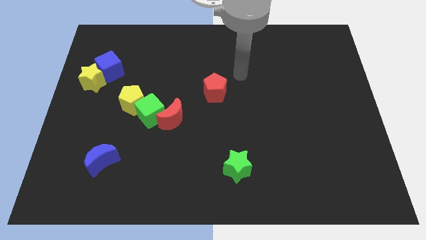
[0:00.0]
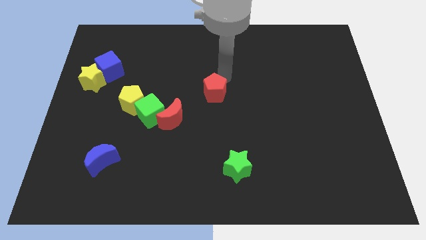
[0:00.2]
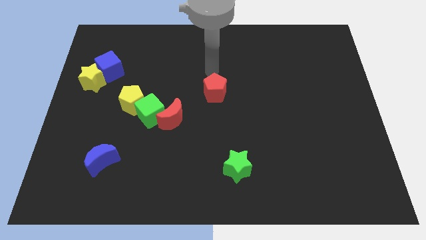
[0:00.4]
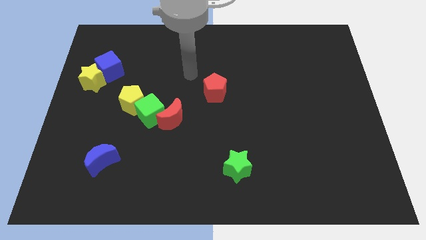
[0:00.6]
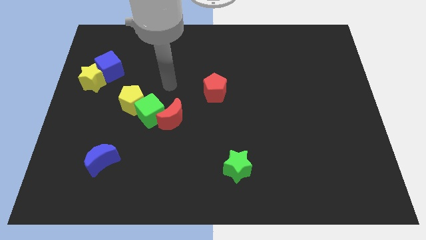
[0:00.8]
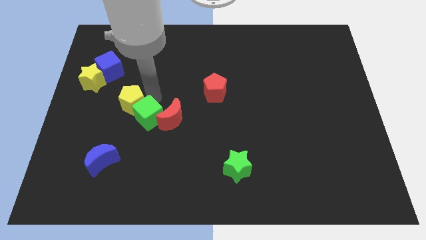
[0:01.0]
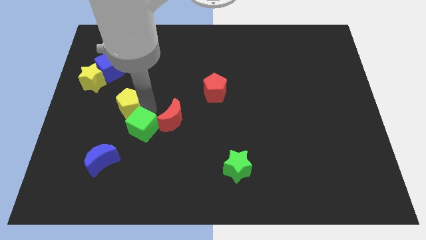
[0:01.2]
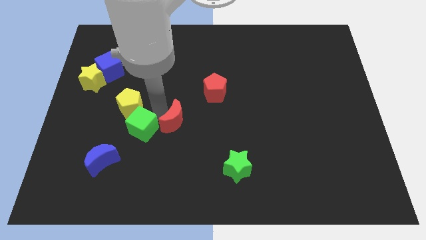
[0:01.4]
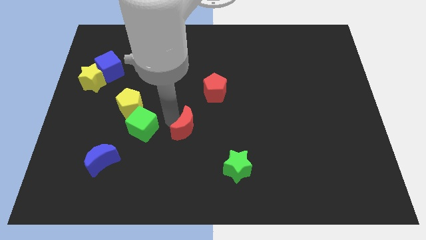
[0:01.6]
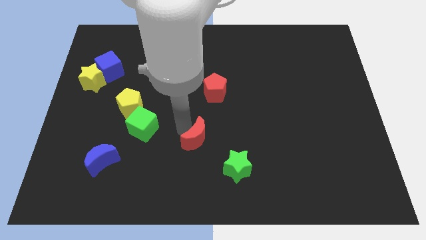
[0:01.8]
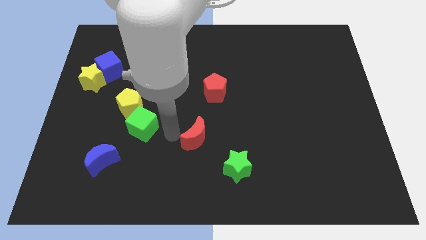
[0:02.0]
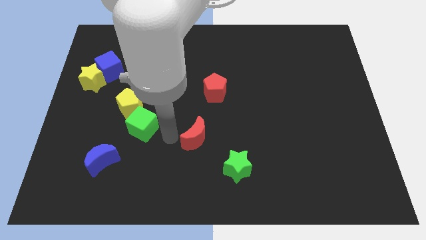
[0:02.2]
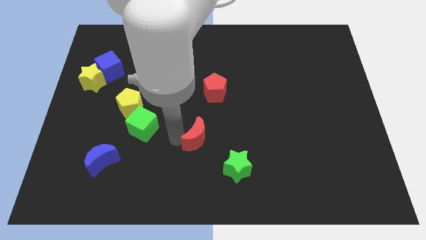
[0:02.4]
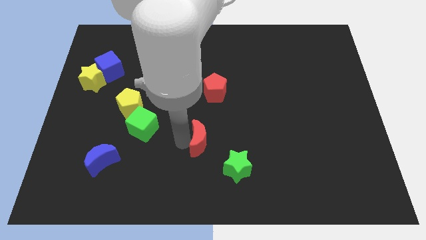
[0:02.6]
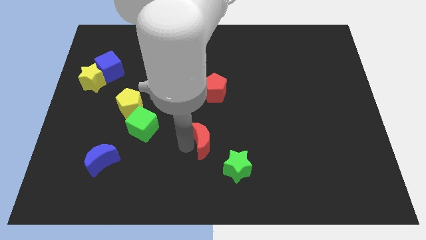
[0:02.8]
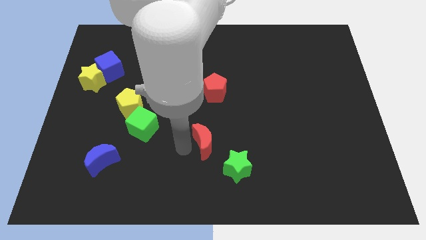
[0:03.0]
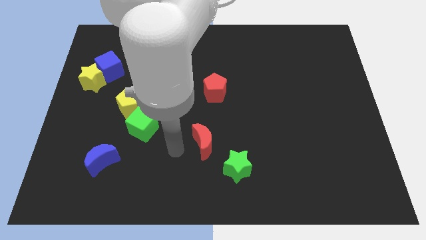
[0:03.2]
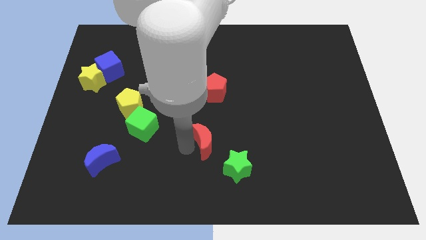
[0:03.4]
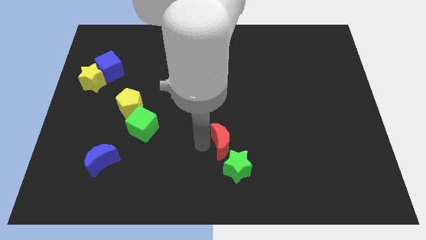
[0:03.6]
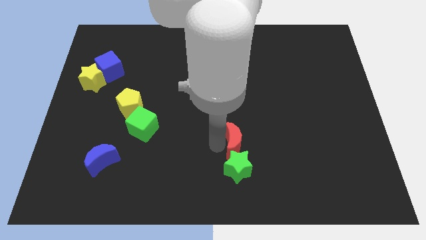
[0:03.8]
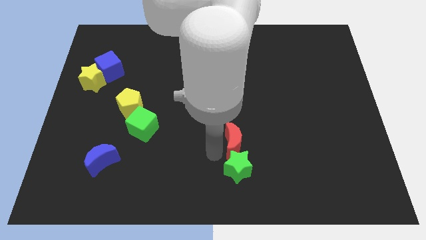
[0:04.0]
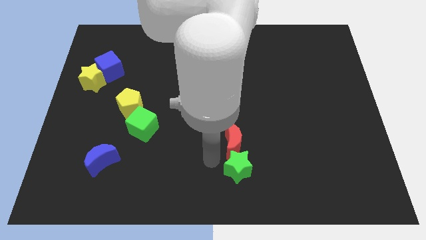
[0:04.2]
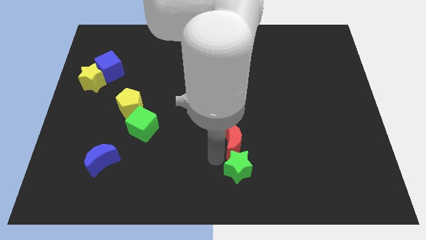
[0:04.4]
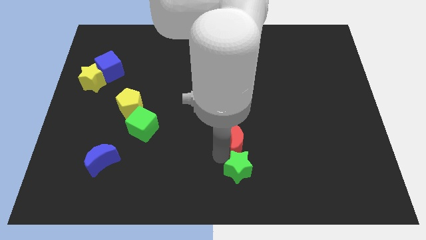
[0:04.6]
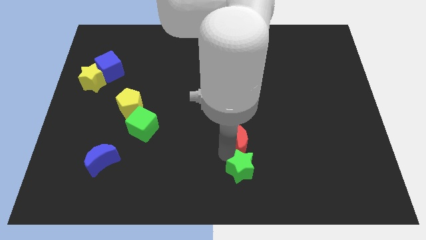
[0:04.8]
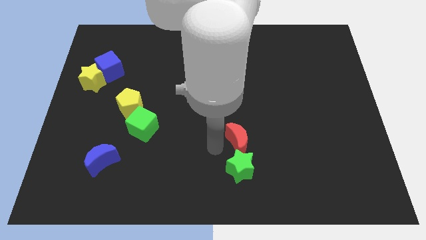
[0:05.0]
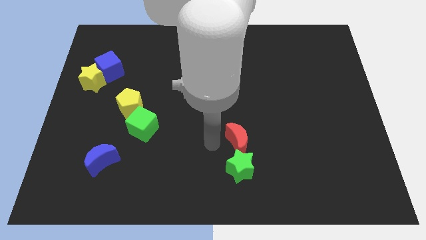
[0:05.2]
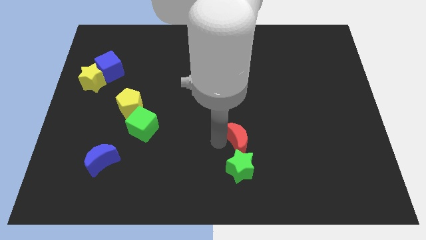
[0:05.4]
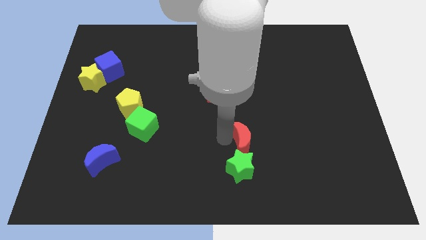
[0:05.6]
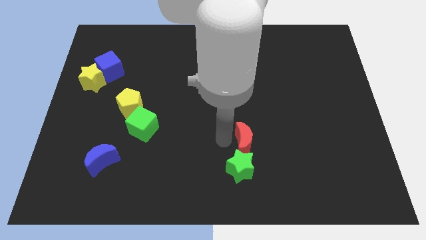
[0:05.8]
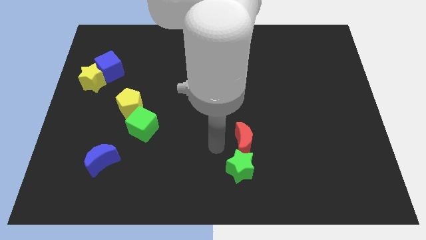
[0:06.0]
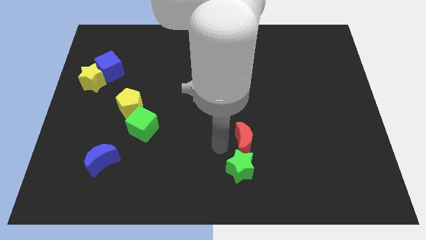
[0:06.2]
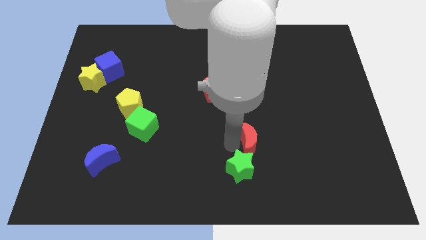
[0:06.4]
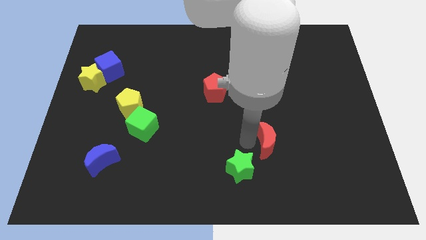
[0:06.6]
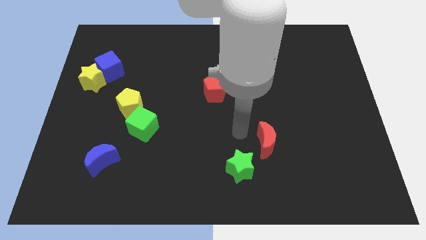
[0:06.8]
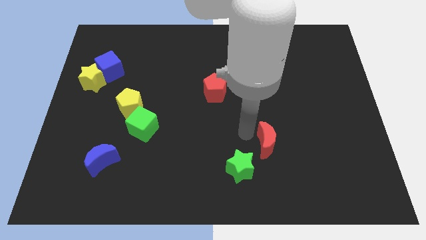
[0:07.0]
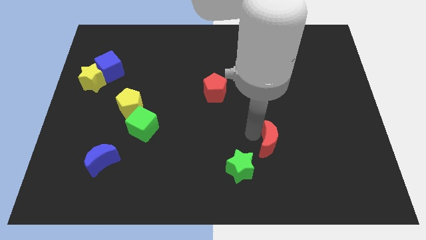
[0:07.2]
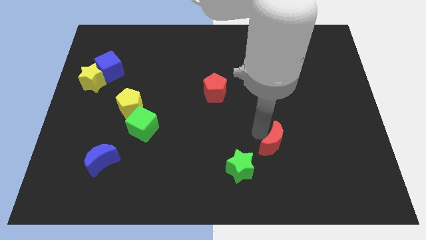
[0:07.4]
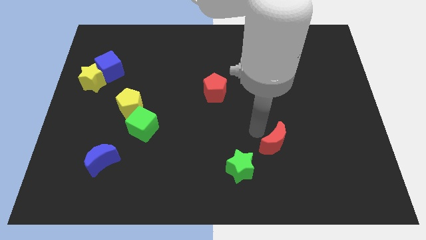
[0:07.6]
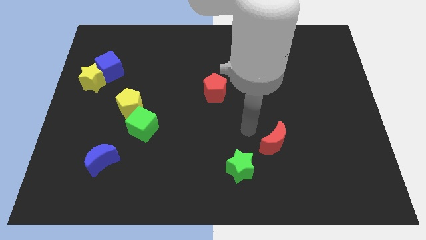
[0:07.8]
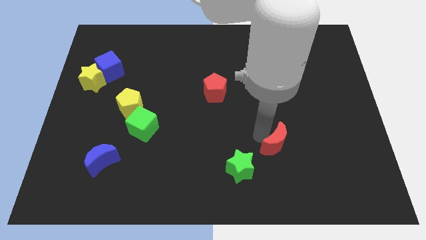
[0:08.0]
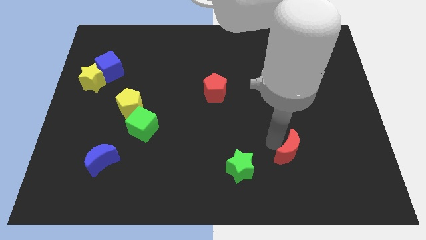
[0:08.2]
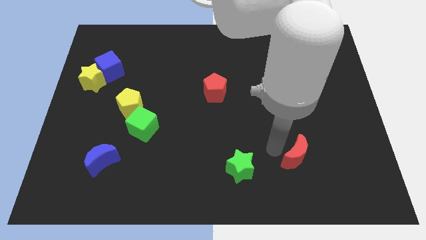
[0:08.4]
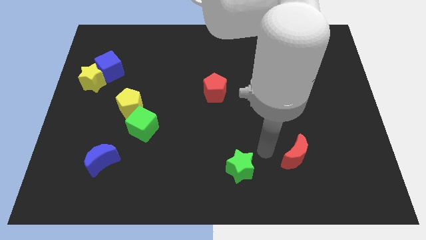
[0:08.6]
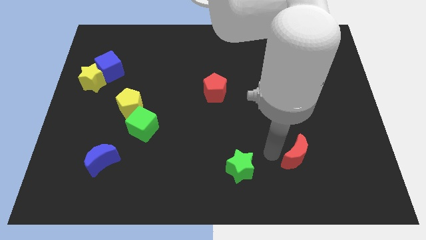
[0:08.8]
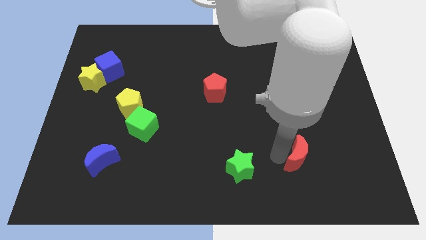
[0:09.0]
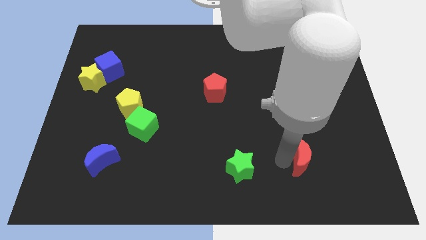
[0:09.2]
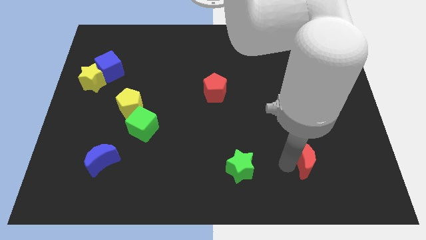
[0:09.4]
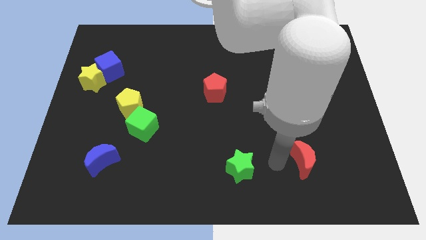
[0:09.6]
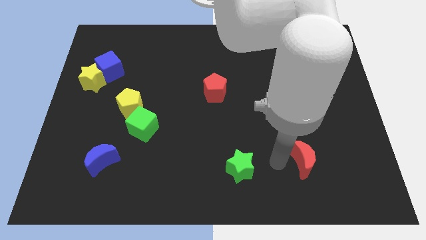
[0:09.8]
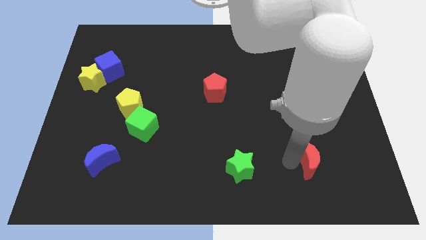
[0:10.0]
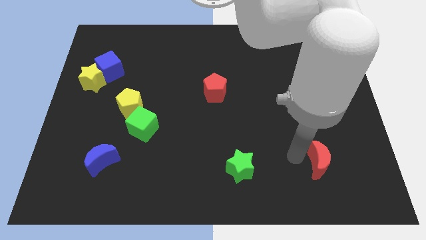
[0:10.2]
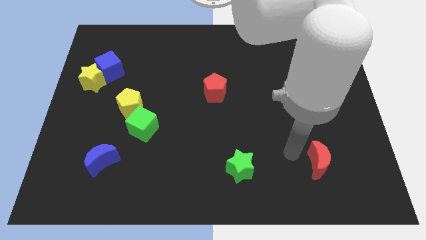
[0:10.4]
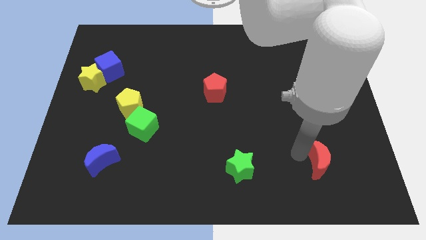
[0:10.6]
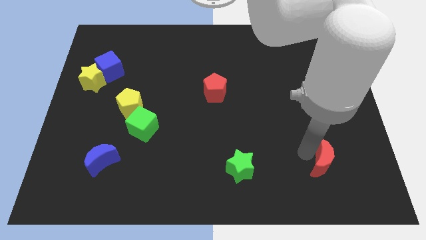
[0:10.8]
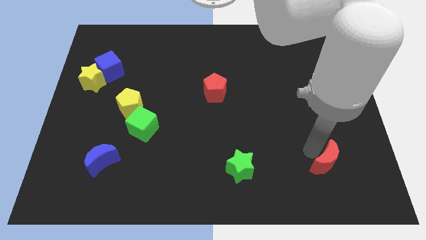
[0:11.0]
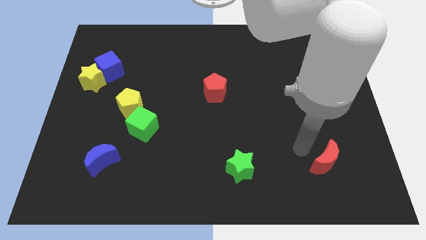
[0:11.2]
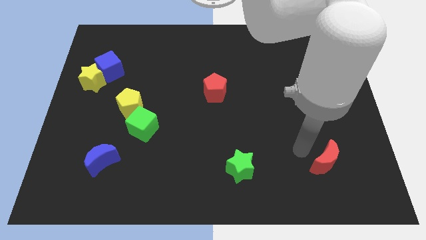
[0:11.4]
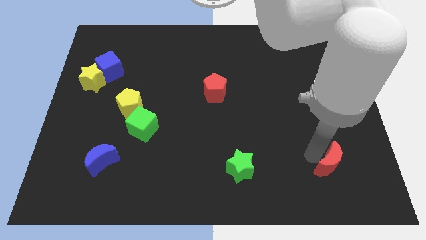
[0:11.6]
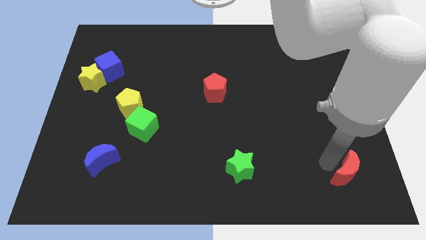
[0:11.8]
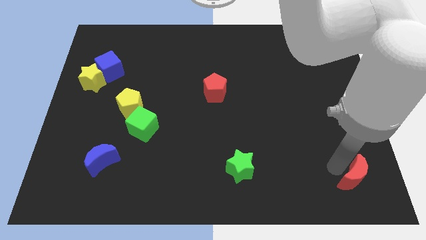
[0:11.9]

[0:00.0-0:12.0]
slide the red moon to the bottom right corner

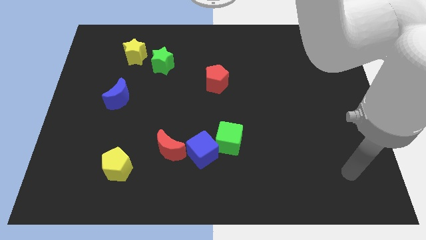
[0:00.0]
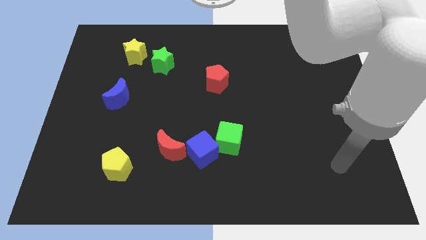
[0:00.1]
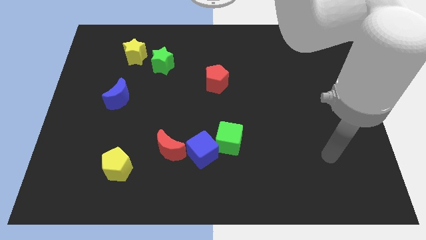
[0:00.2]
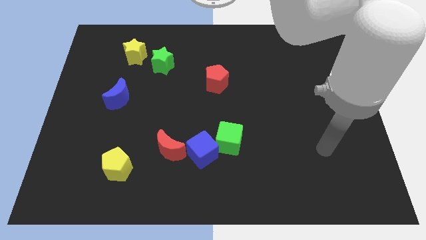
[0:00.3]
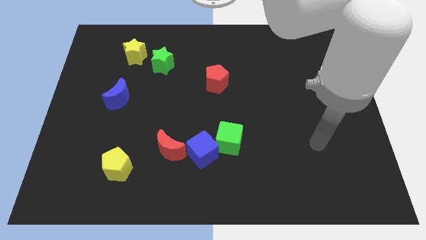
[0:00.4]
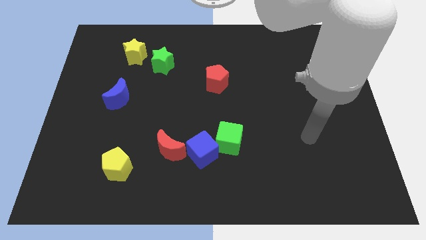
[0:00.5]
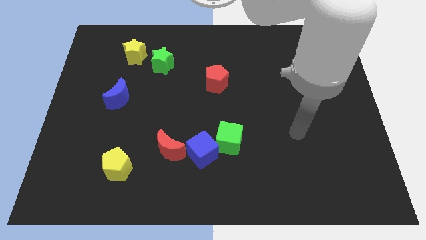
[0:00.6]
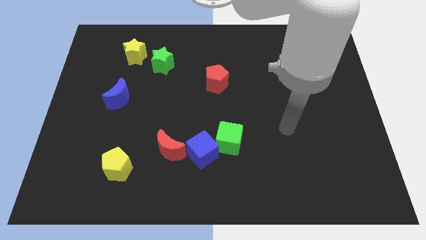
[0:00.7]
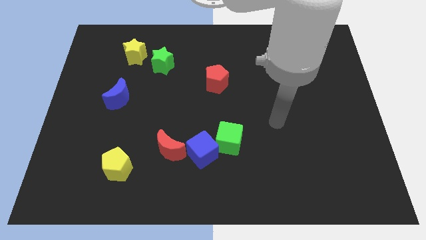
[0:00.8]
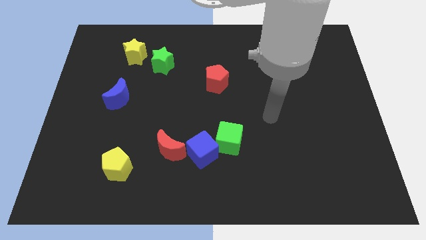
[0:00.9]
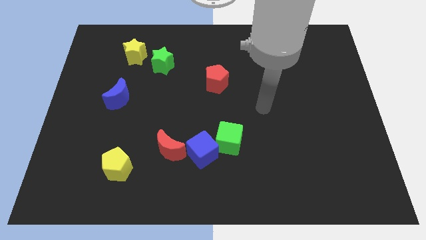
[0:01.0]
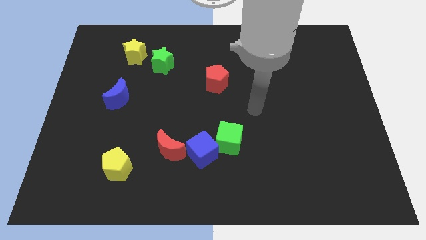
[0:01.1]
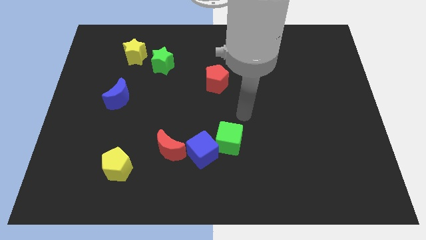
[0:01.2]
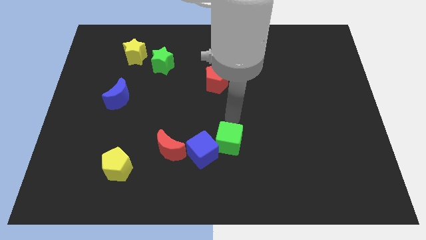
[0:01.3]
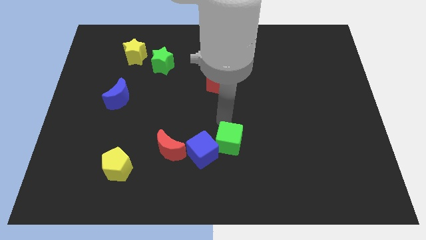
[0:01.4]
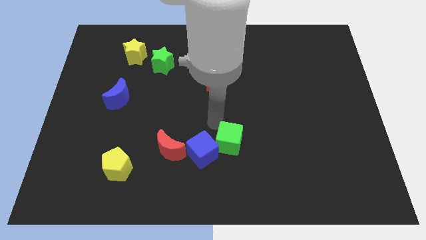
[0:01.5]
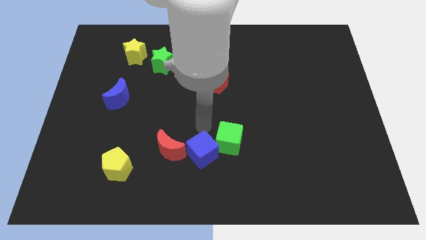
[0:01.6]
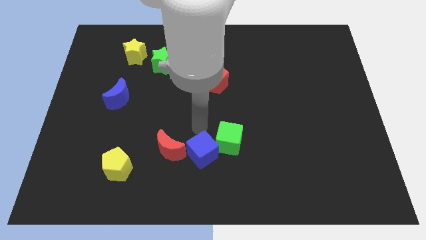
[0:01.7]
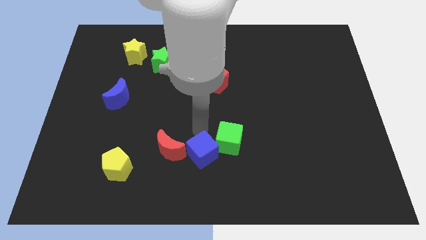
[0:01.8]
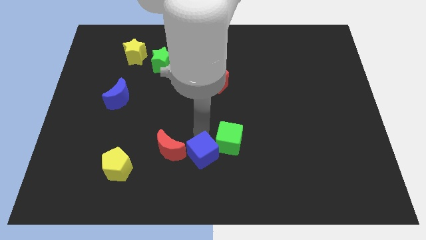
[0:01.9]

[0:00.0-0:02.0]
slide the blue cube to the bottom
